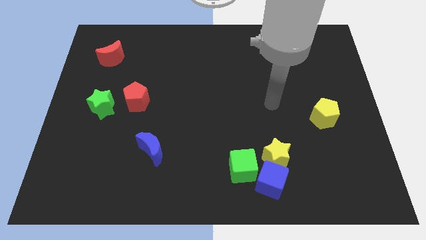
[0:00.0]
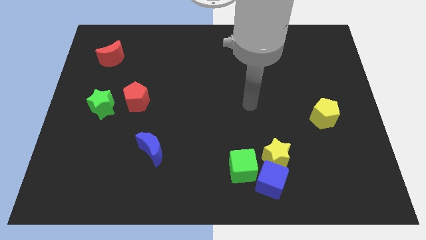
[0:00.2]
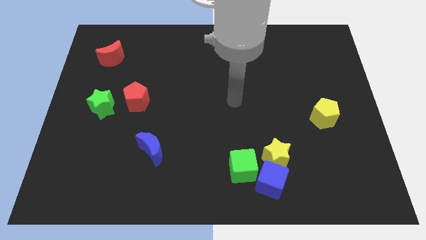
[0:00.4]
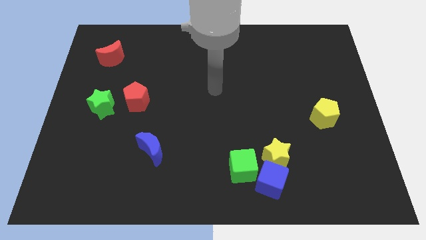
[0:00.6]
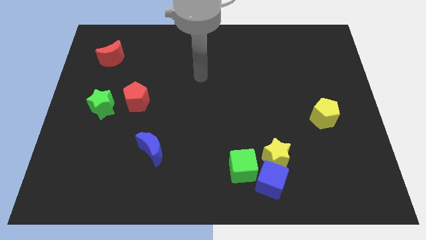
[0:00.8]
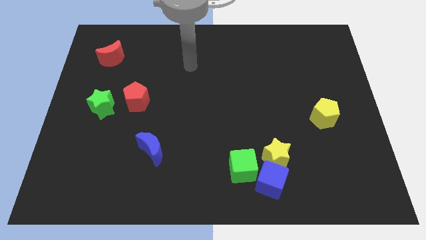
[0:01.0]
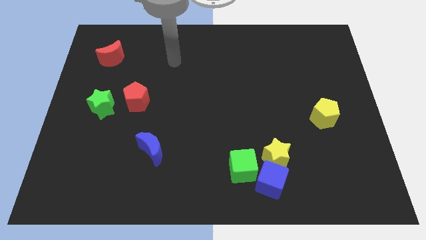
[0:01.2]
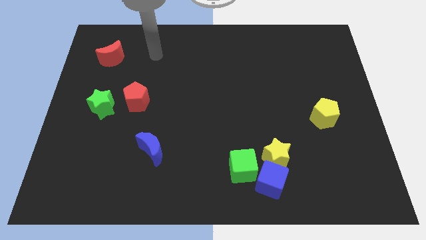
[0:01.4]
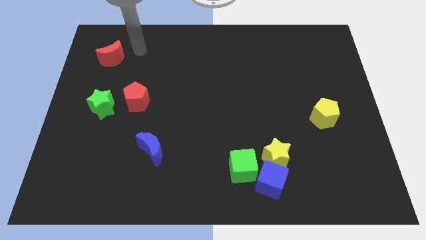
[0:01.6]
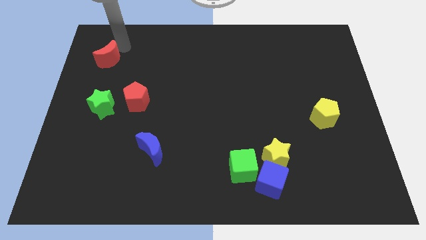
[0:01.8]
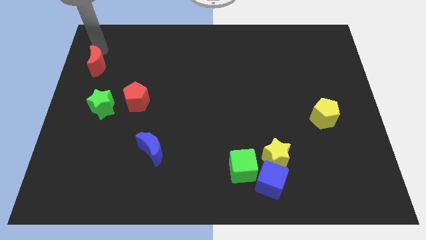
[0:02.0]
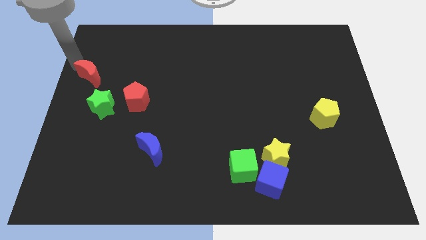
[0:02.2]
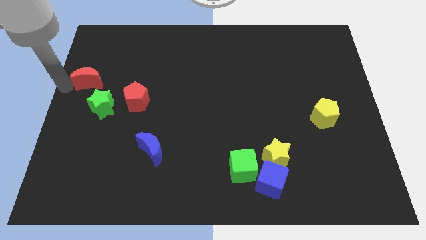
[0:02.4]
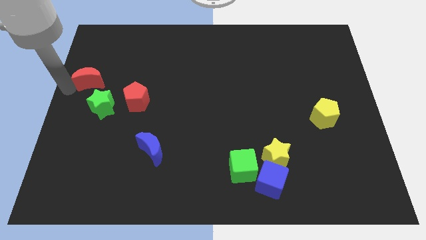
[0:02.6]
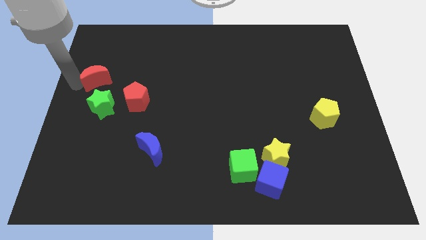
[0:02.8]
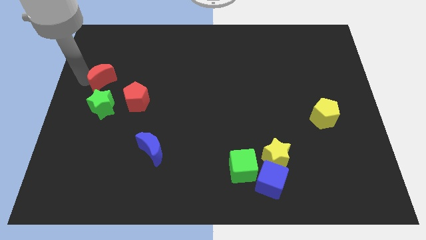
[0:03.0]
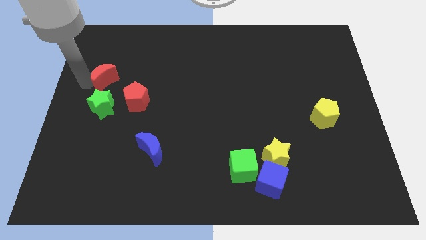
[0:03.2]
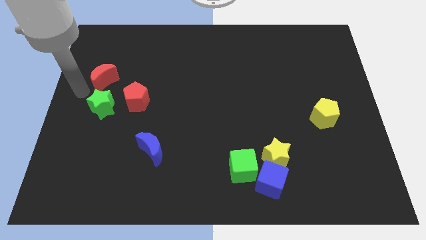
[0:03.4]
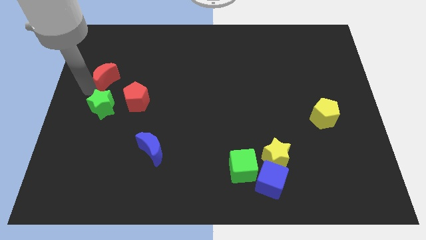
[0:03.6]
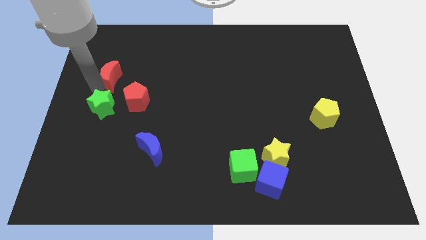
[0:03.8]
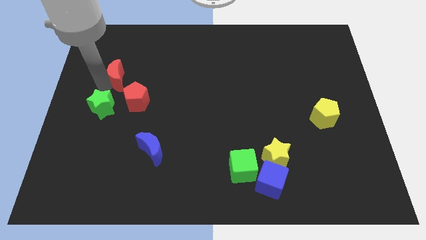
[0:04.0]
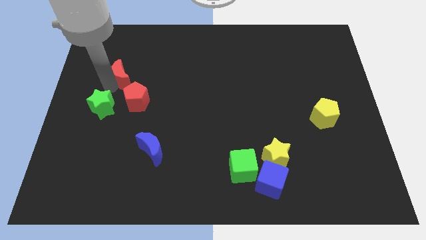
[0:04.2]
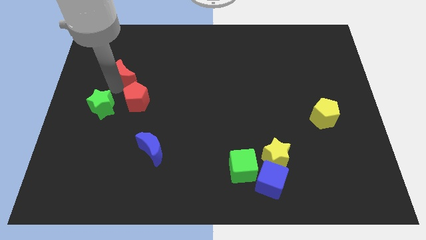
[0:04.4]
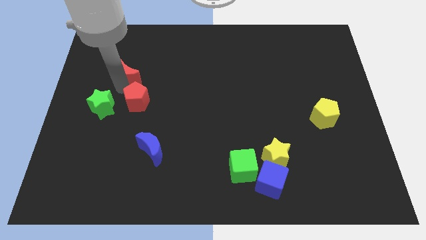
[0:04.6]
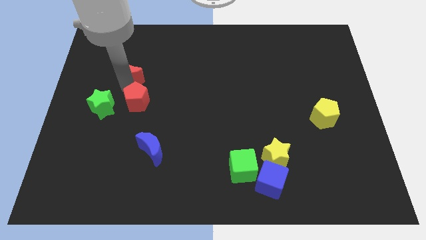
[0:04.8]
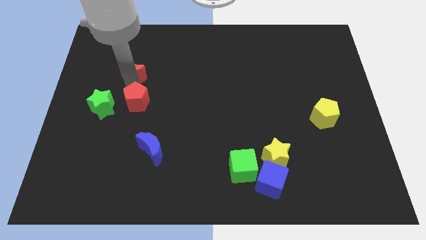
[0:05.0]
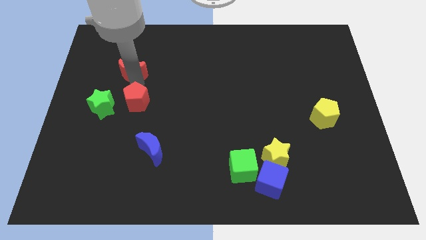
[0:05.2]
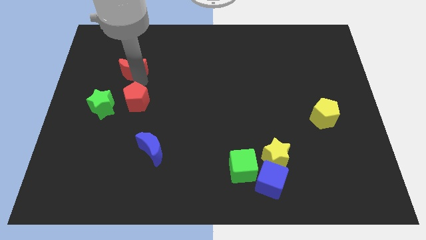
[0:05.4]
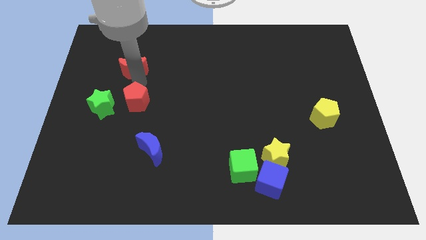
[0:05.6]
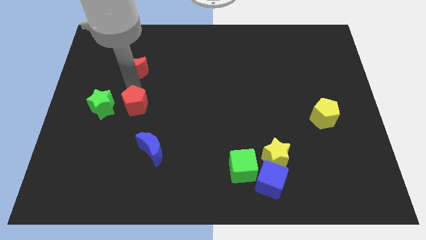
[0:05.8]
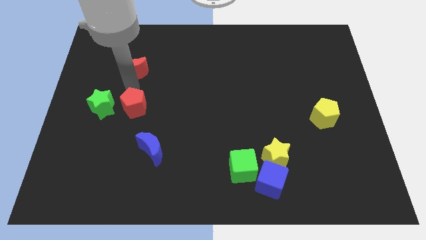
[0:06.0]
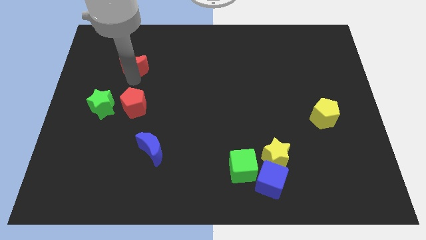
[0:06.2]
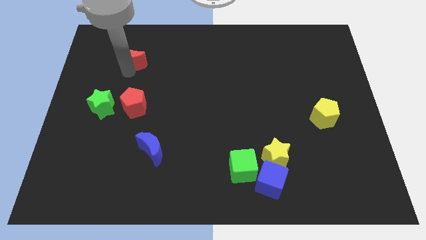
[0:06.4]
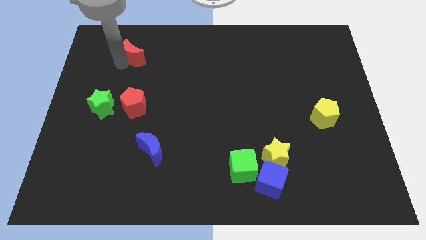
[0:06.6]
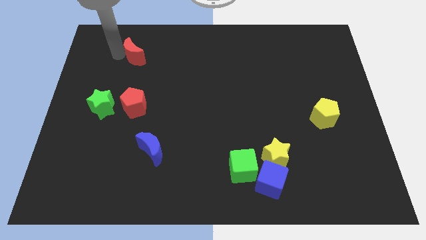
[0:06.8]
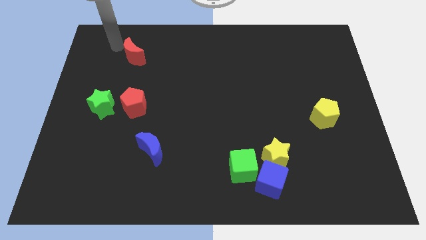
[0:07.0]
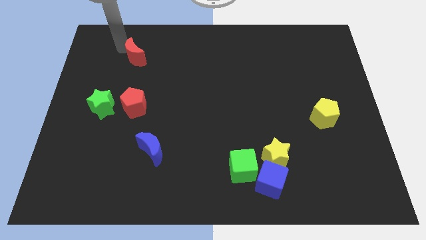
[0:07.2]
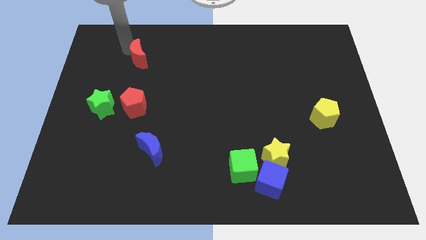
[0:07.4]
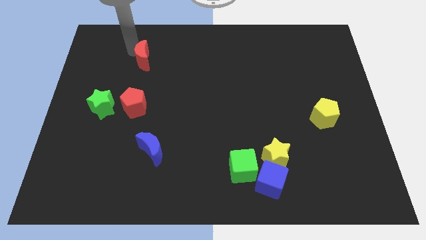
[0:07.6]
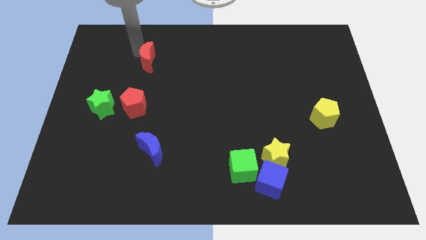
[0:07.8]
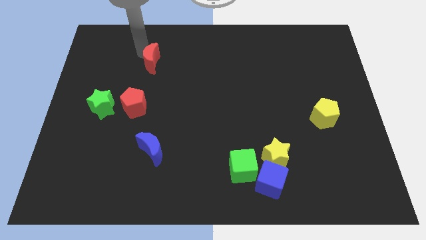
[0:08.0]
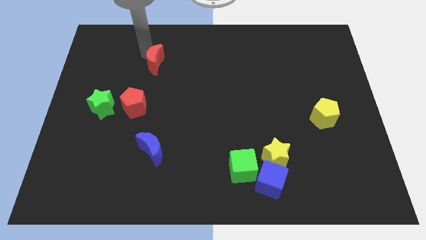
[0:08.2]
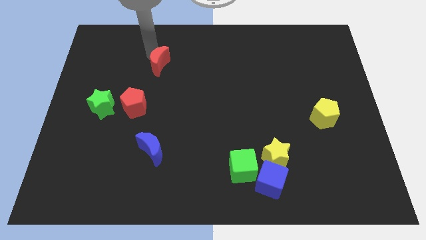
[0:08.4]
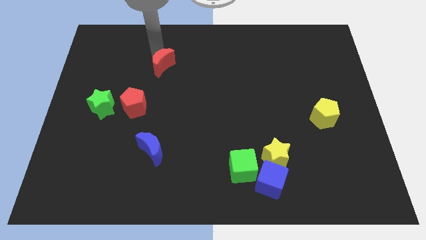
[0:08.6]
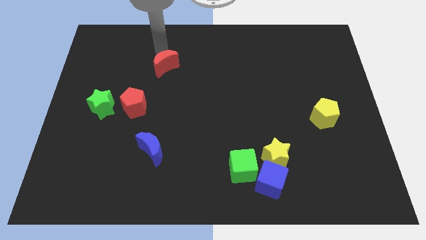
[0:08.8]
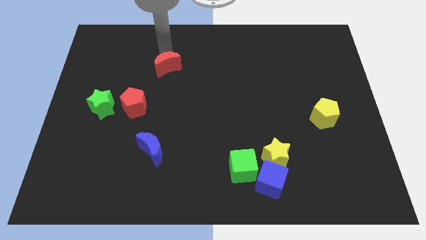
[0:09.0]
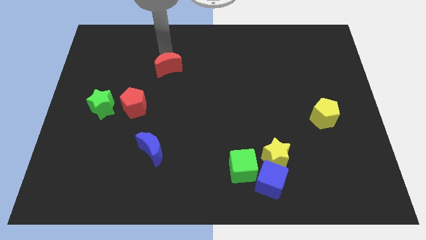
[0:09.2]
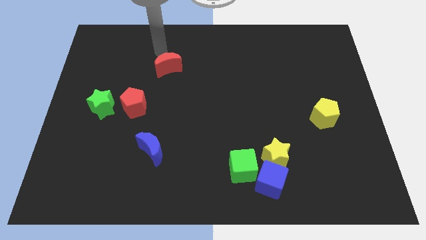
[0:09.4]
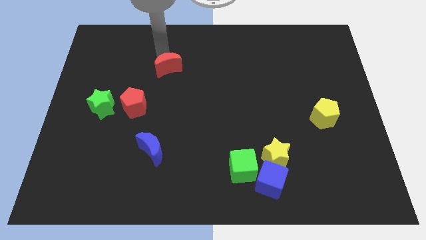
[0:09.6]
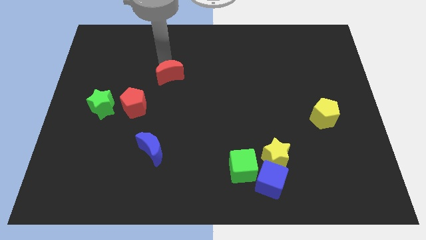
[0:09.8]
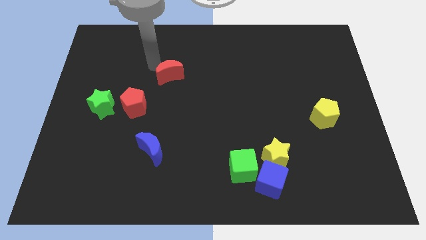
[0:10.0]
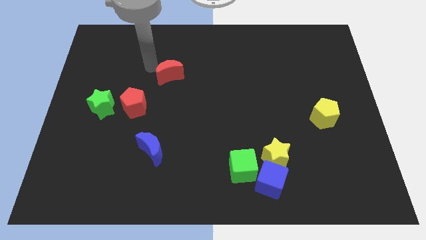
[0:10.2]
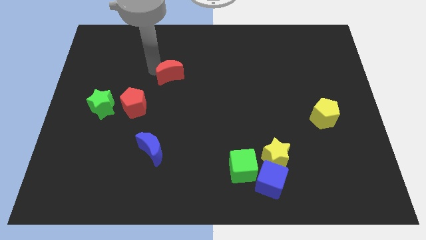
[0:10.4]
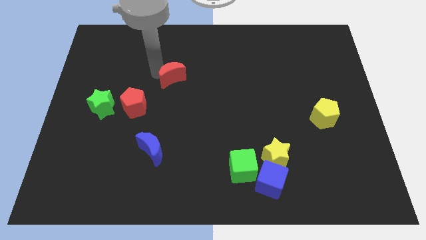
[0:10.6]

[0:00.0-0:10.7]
slide the red moon to the center of the board

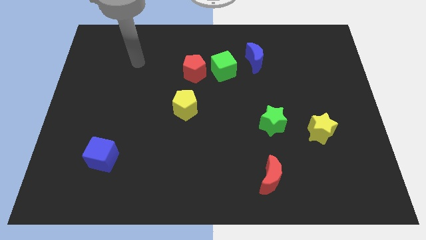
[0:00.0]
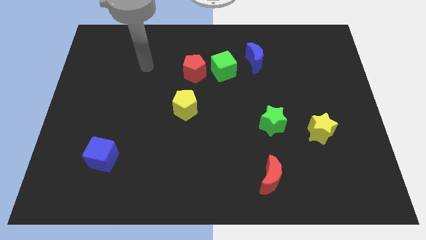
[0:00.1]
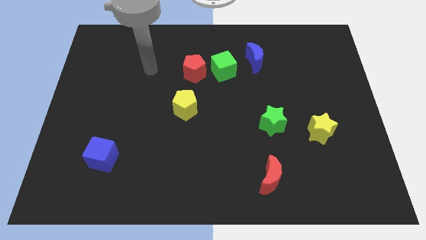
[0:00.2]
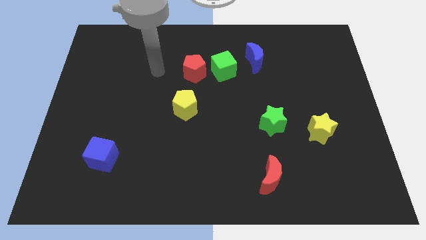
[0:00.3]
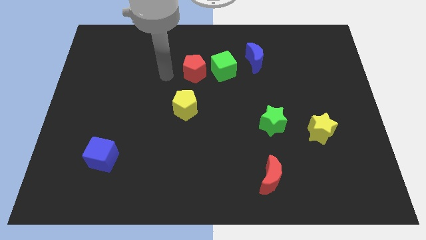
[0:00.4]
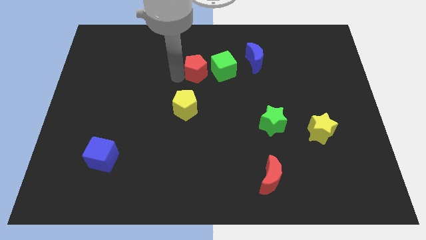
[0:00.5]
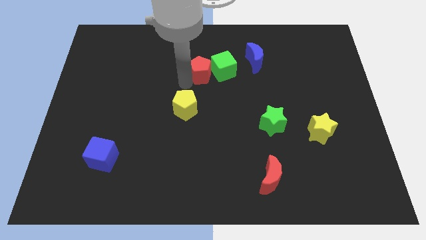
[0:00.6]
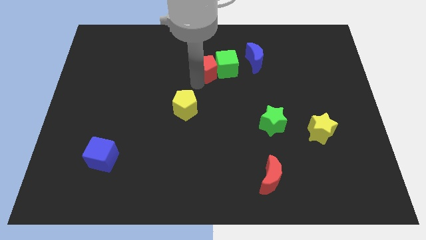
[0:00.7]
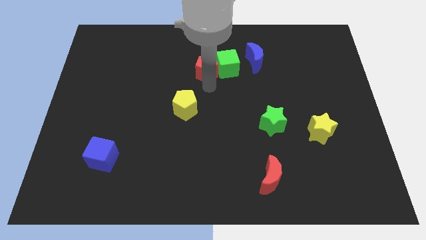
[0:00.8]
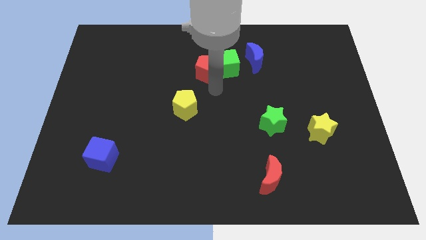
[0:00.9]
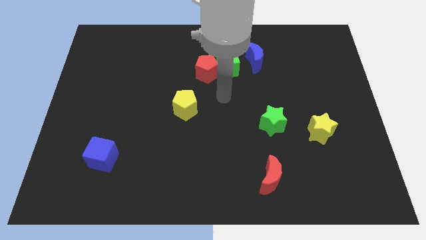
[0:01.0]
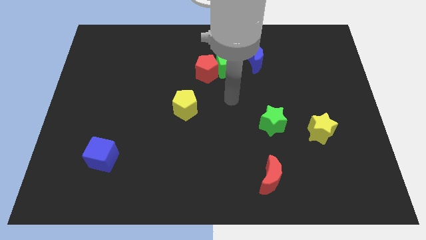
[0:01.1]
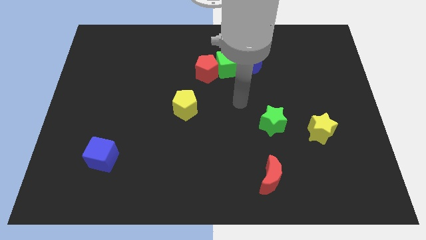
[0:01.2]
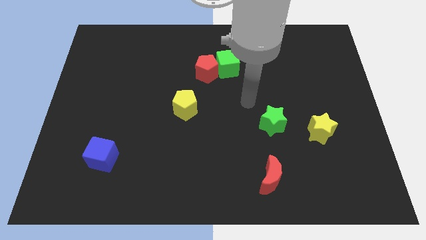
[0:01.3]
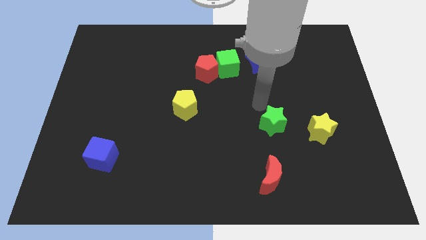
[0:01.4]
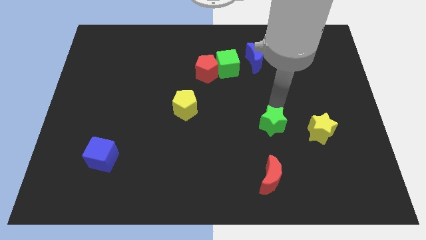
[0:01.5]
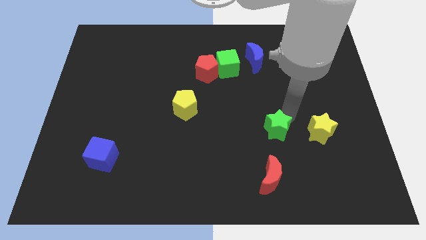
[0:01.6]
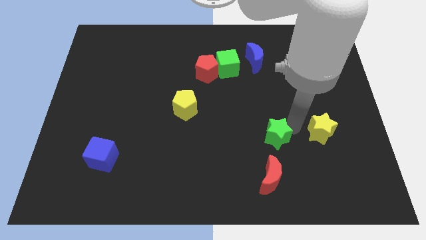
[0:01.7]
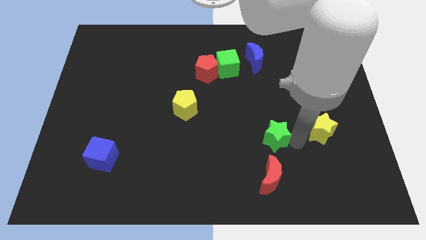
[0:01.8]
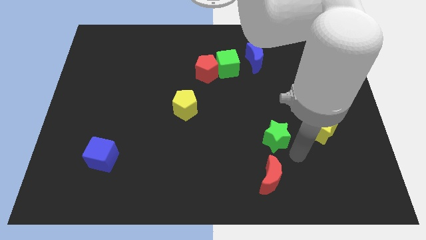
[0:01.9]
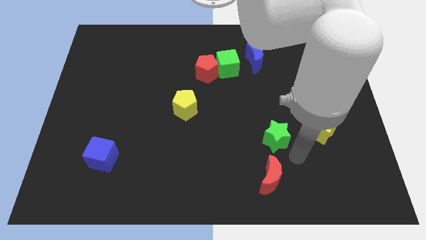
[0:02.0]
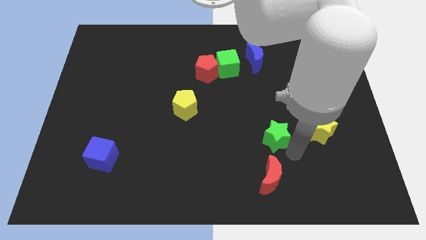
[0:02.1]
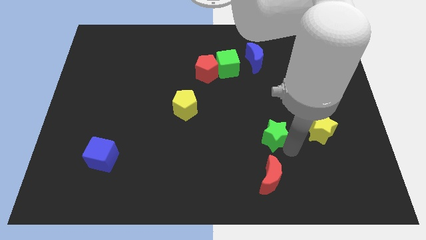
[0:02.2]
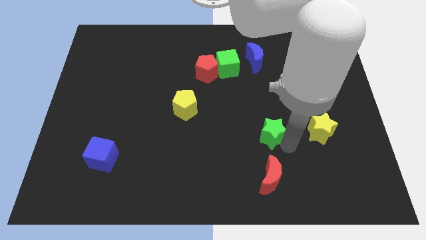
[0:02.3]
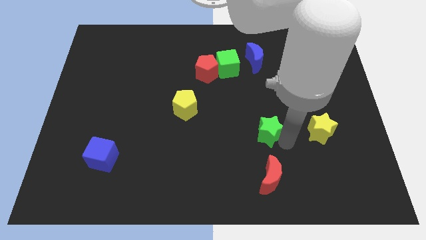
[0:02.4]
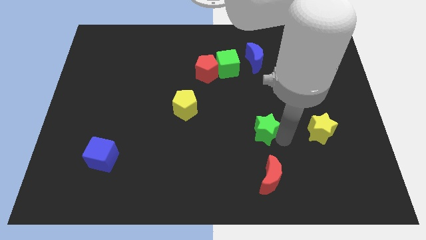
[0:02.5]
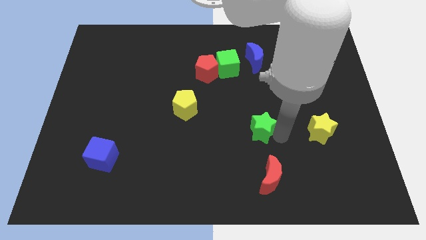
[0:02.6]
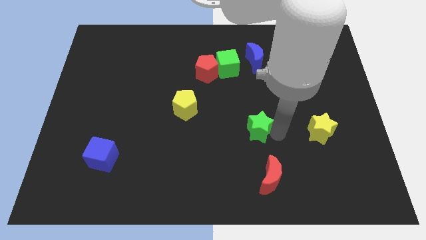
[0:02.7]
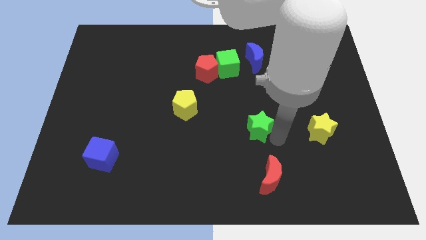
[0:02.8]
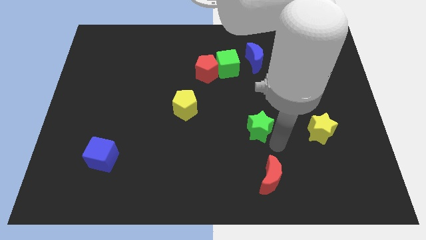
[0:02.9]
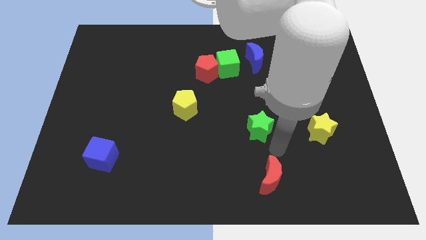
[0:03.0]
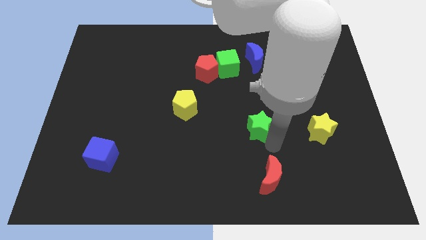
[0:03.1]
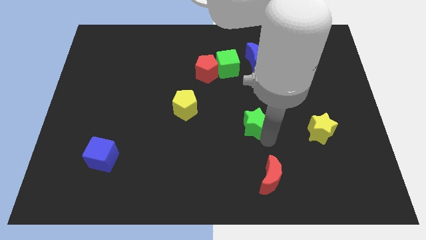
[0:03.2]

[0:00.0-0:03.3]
move the green star to the center
